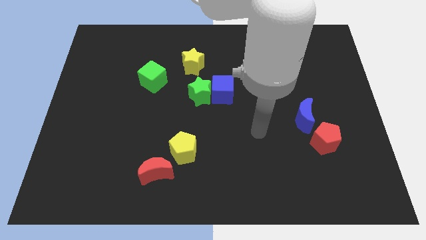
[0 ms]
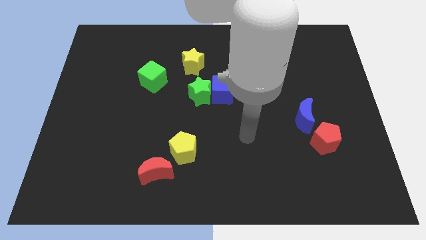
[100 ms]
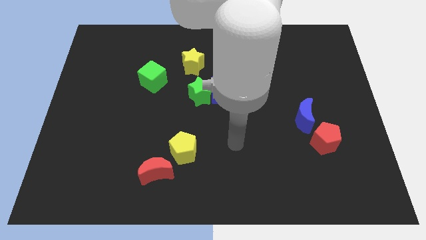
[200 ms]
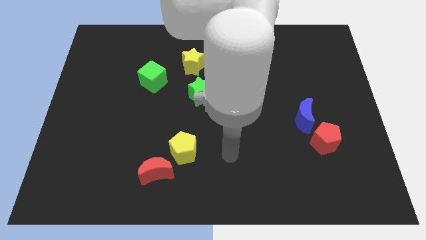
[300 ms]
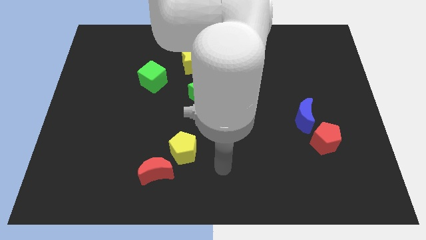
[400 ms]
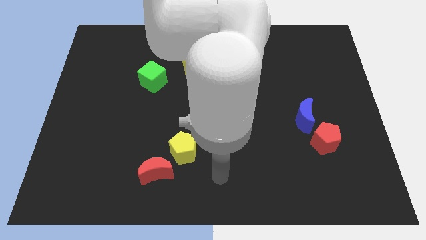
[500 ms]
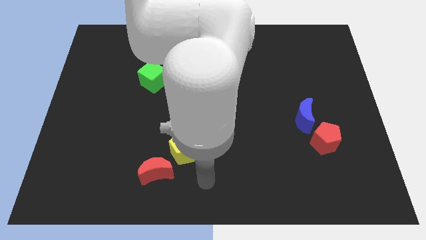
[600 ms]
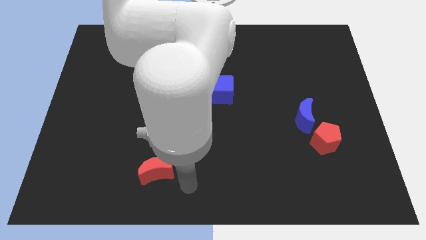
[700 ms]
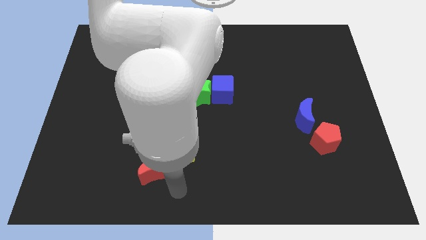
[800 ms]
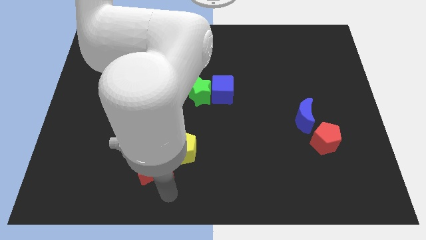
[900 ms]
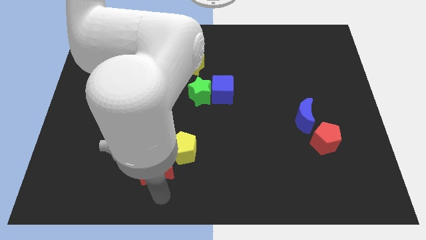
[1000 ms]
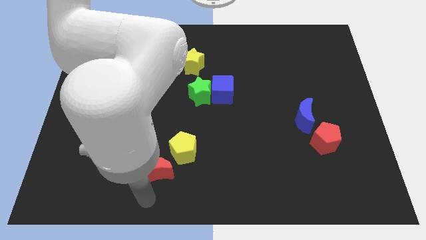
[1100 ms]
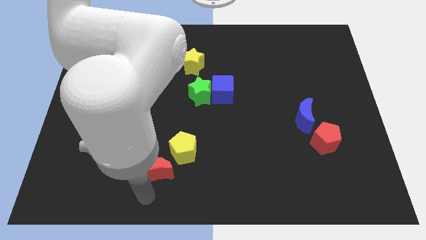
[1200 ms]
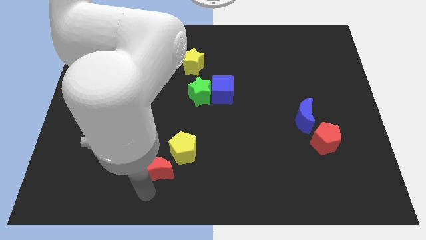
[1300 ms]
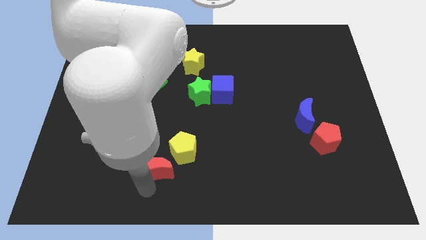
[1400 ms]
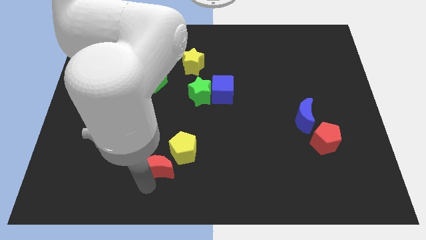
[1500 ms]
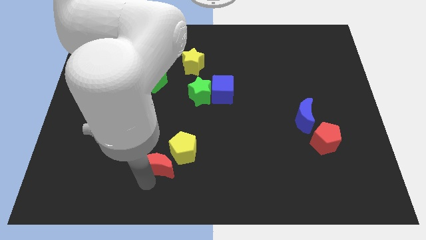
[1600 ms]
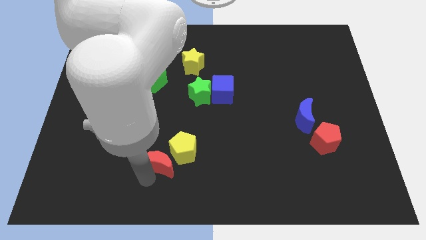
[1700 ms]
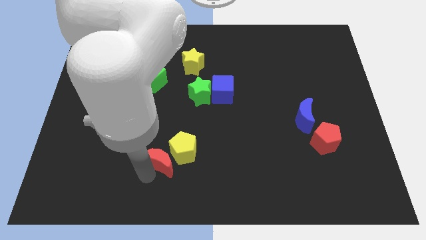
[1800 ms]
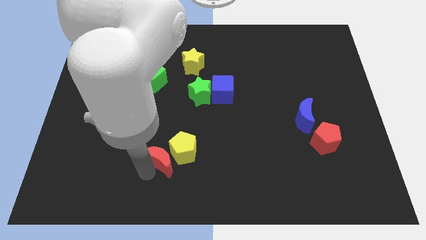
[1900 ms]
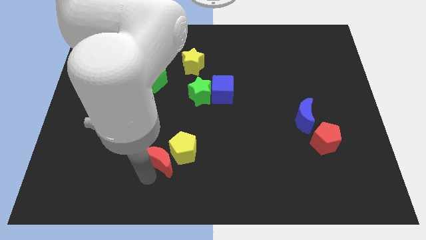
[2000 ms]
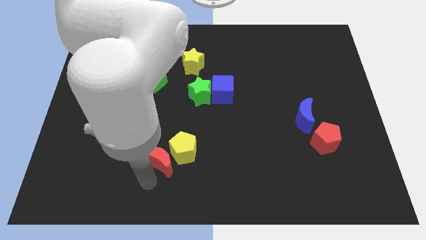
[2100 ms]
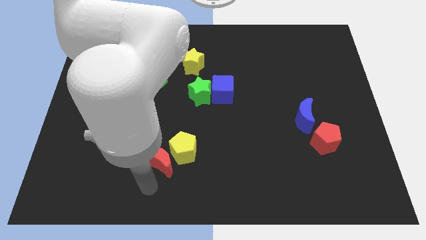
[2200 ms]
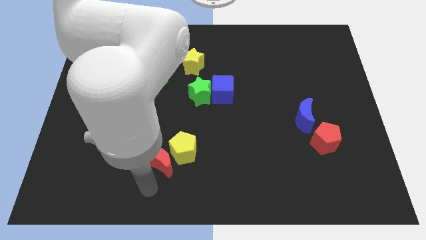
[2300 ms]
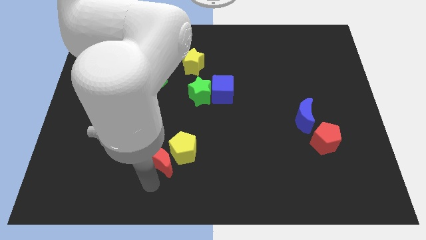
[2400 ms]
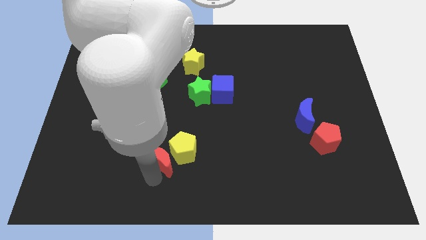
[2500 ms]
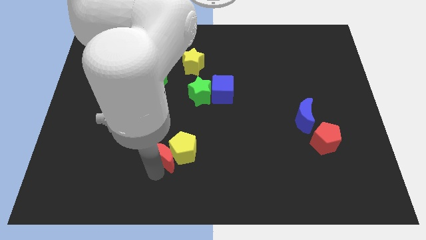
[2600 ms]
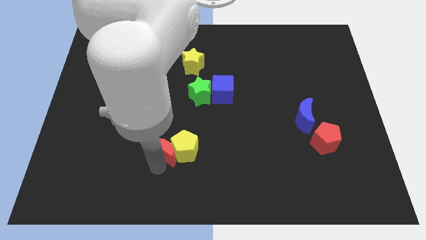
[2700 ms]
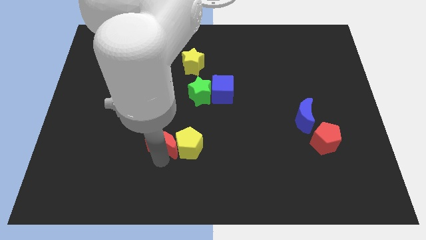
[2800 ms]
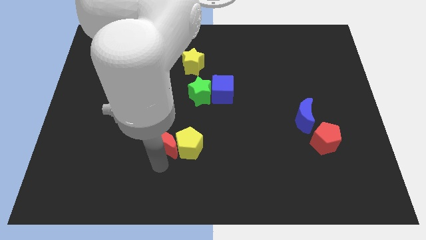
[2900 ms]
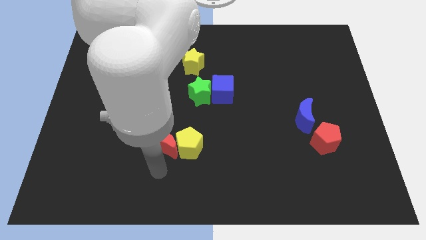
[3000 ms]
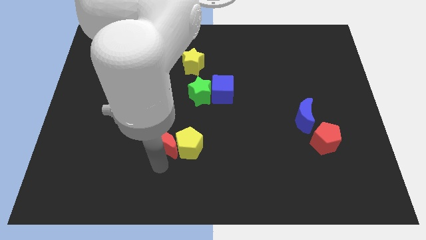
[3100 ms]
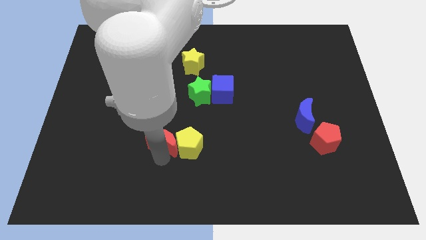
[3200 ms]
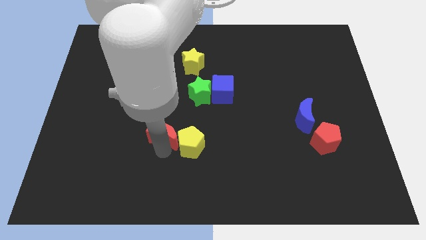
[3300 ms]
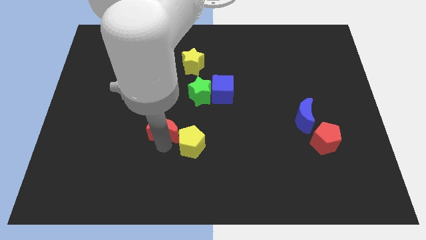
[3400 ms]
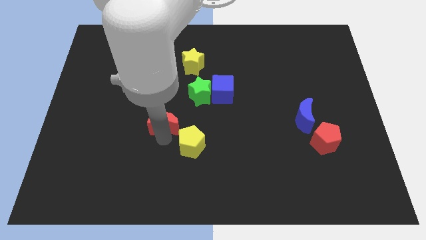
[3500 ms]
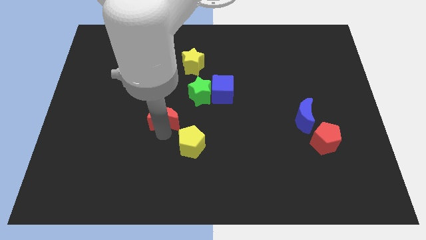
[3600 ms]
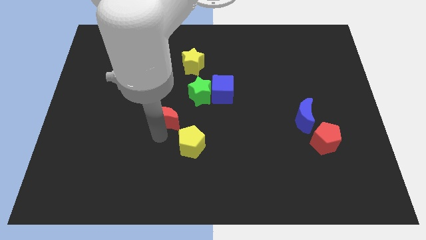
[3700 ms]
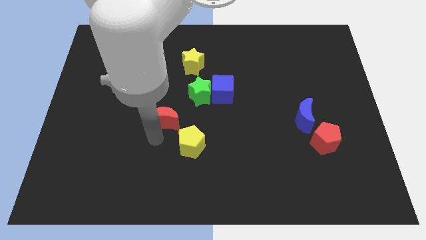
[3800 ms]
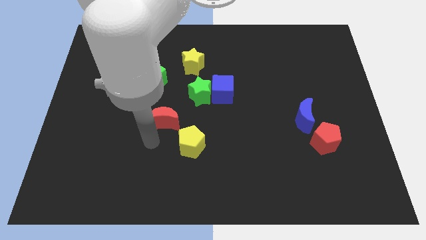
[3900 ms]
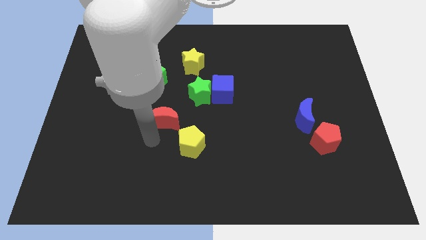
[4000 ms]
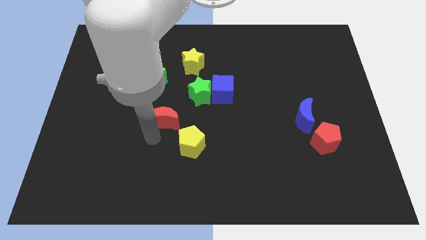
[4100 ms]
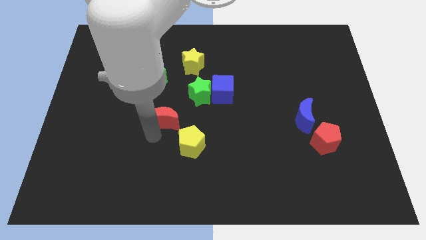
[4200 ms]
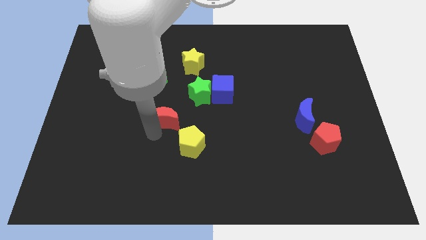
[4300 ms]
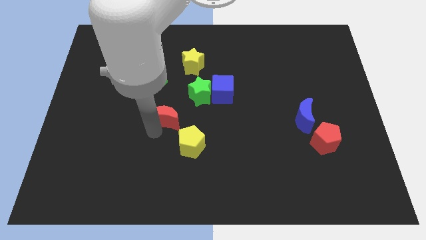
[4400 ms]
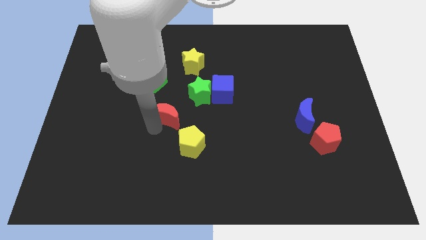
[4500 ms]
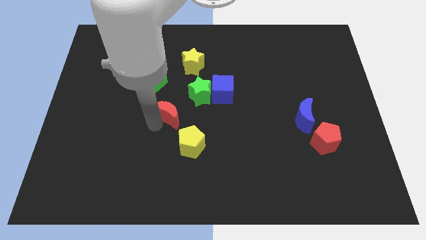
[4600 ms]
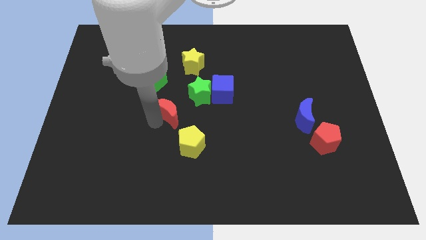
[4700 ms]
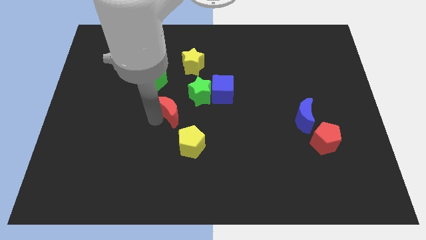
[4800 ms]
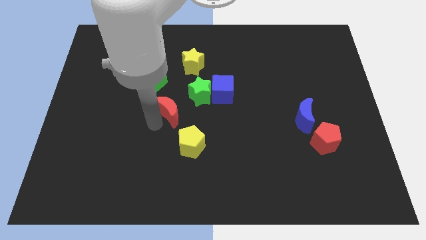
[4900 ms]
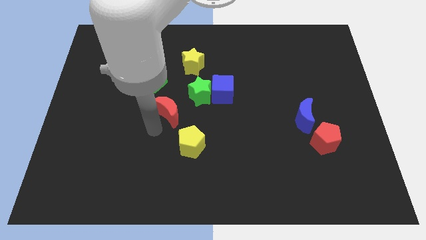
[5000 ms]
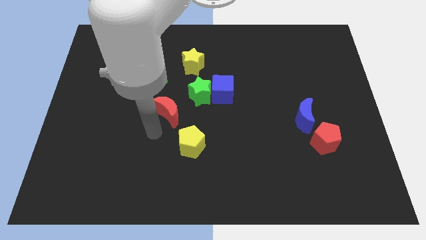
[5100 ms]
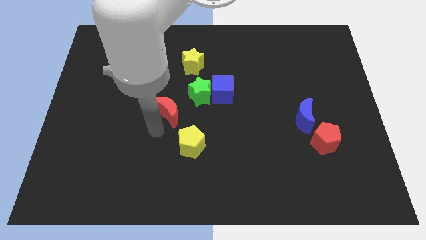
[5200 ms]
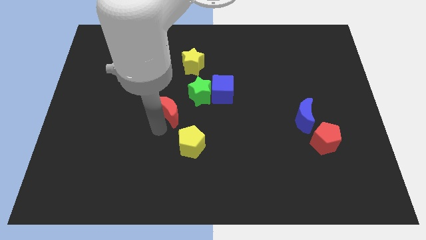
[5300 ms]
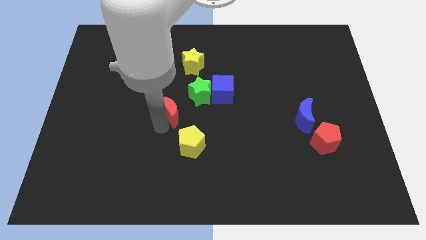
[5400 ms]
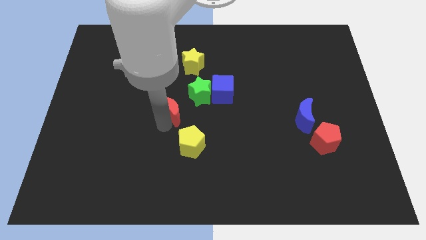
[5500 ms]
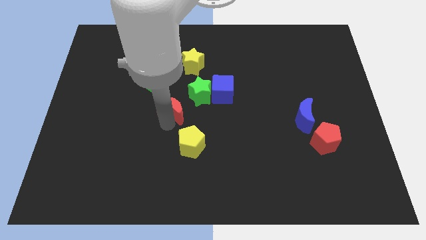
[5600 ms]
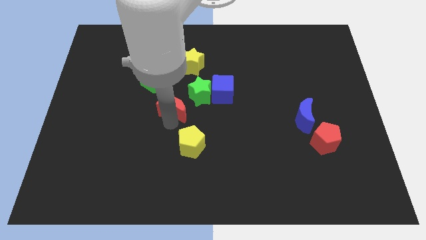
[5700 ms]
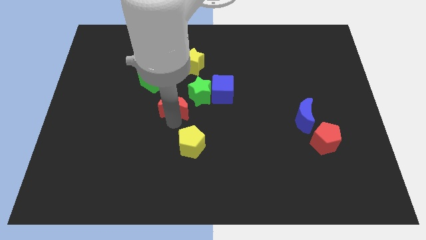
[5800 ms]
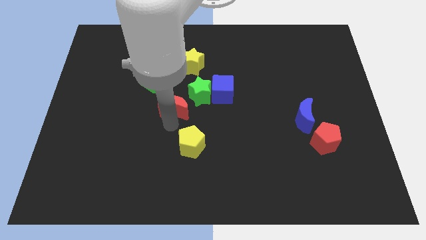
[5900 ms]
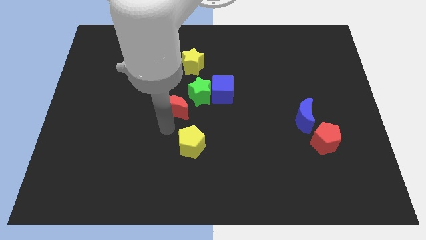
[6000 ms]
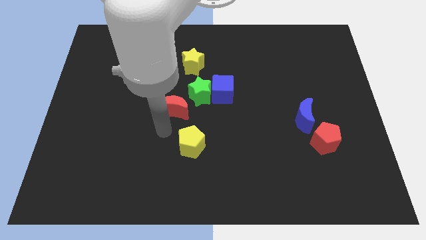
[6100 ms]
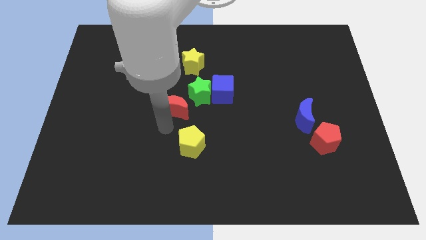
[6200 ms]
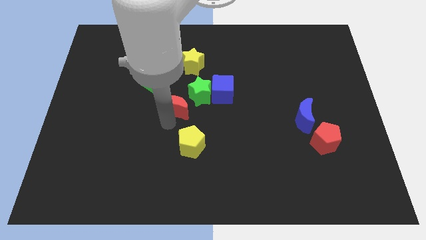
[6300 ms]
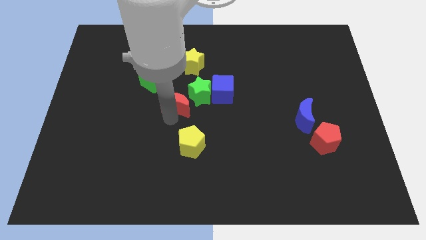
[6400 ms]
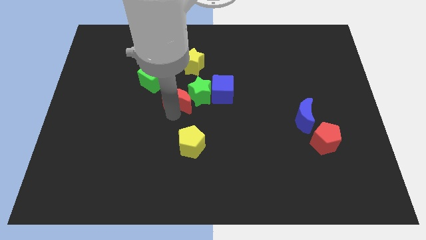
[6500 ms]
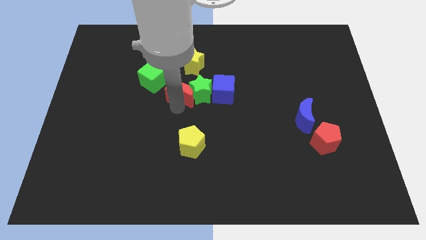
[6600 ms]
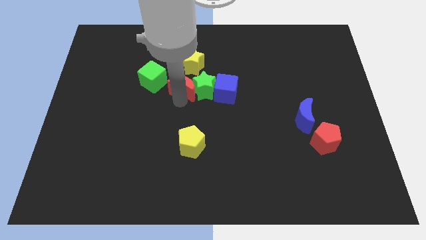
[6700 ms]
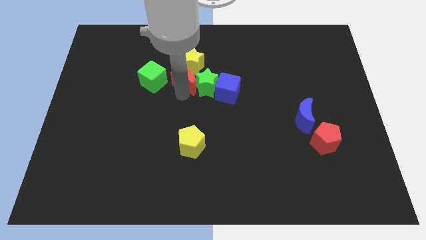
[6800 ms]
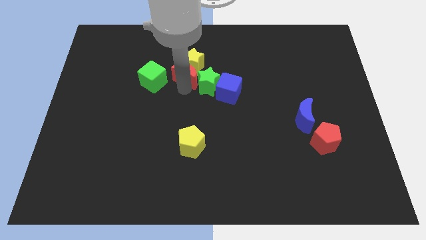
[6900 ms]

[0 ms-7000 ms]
slide the red moon close to the yellow star

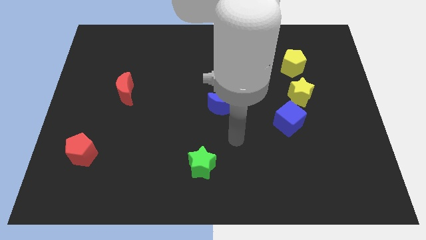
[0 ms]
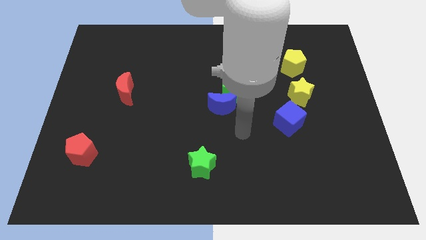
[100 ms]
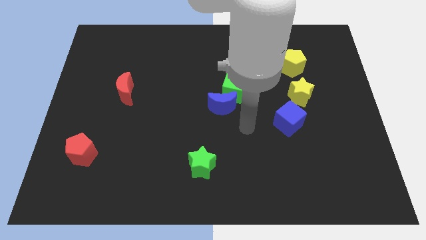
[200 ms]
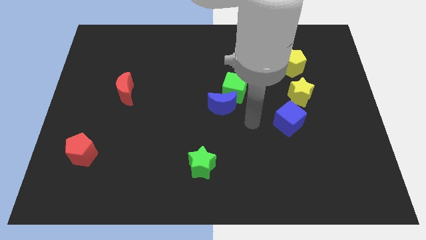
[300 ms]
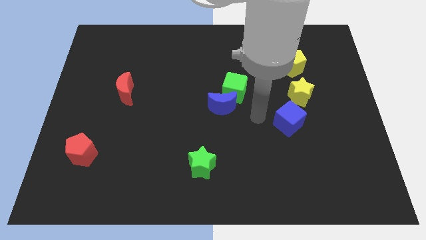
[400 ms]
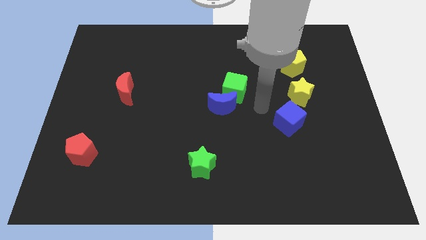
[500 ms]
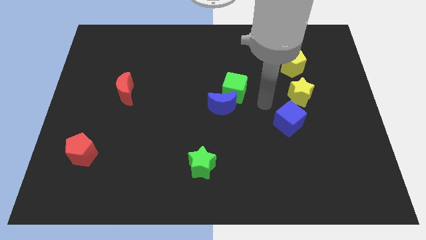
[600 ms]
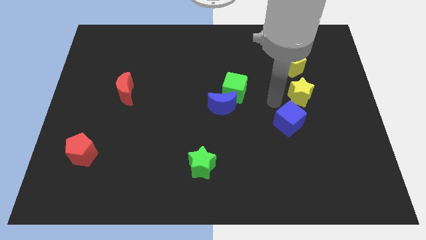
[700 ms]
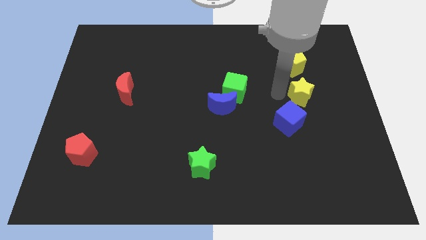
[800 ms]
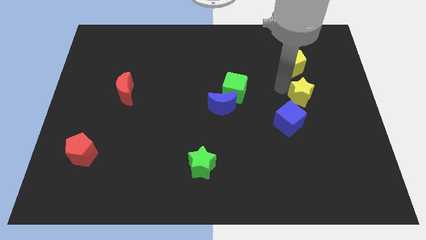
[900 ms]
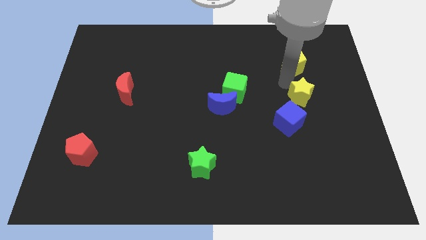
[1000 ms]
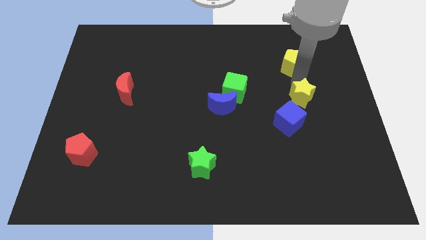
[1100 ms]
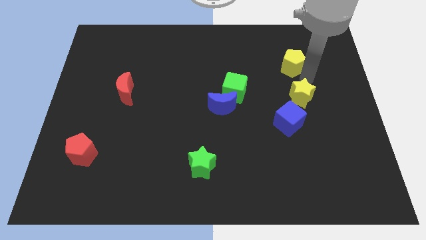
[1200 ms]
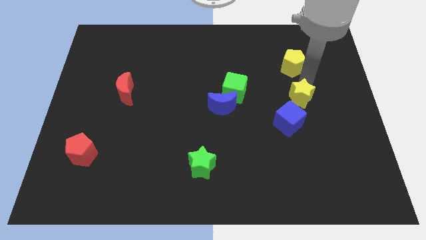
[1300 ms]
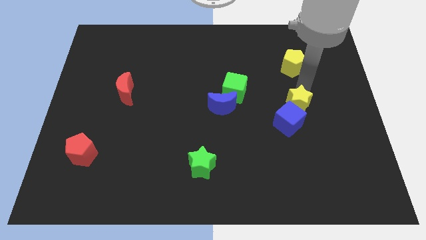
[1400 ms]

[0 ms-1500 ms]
move the yellow star close to the blue cube
